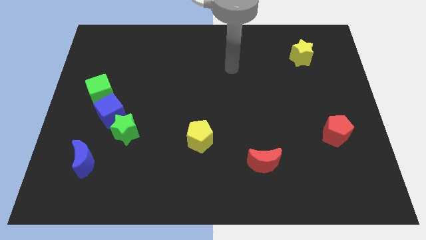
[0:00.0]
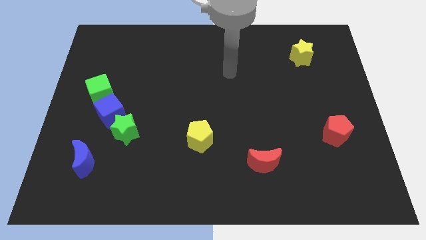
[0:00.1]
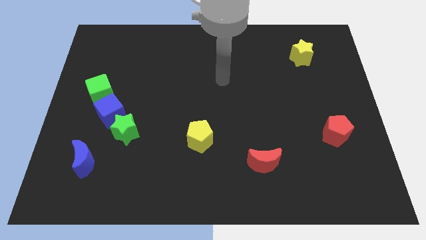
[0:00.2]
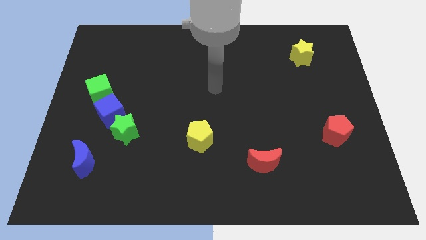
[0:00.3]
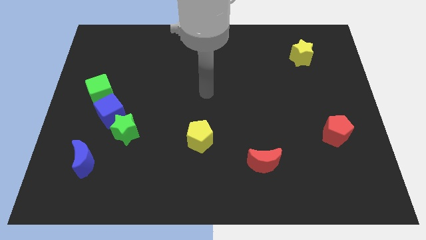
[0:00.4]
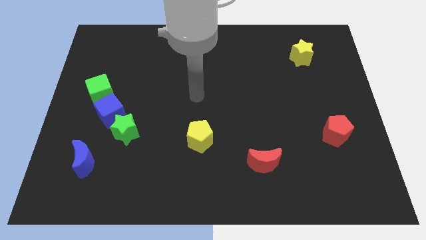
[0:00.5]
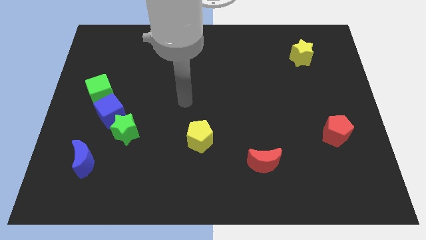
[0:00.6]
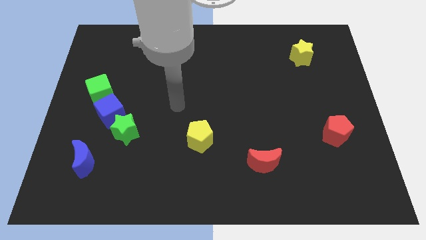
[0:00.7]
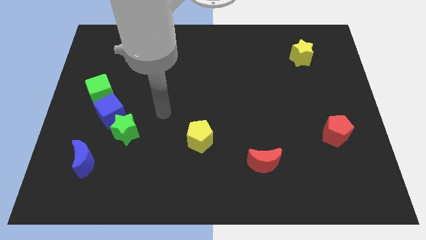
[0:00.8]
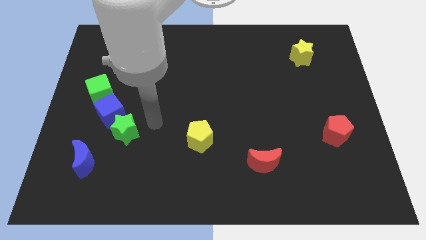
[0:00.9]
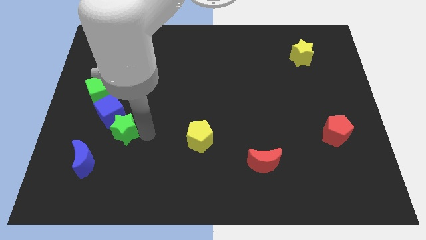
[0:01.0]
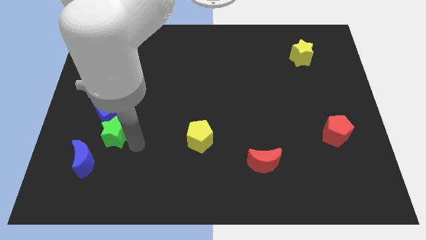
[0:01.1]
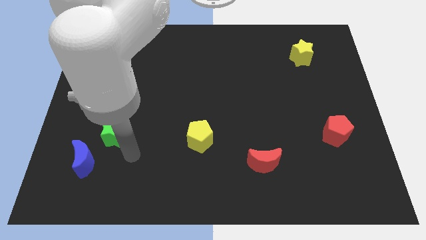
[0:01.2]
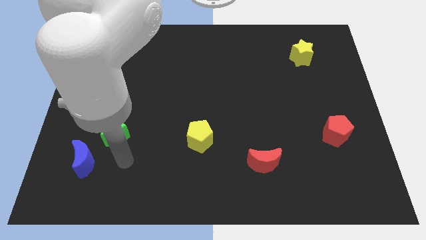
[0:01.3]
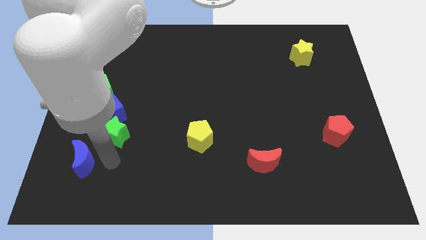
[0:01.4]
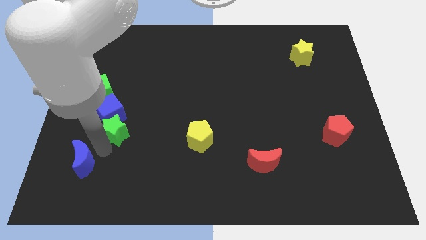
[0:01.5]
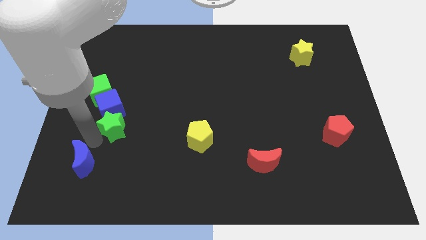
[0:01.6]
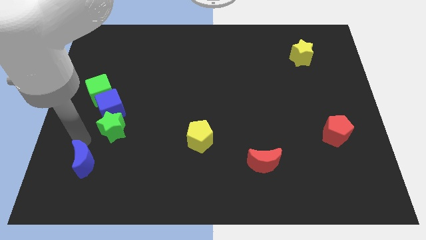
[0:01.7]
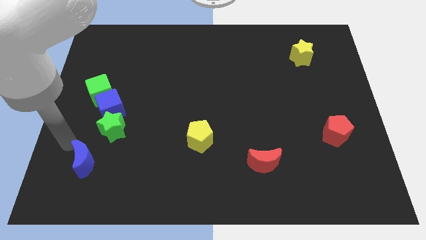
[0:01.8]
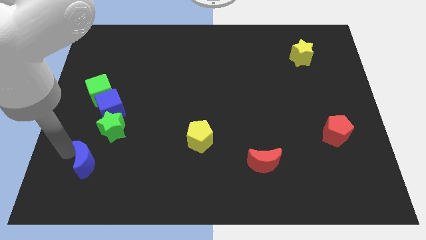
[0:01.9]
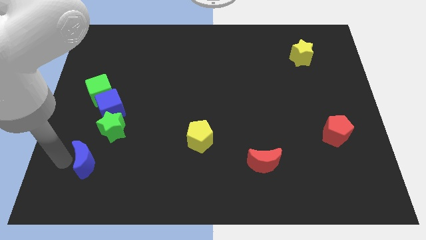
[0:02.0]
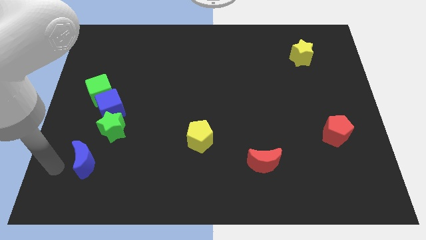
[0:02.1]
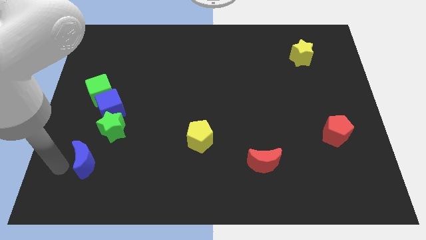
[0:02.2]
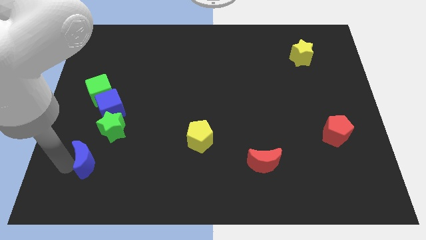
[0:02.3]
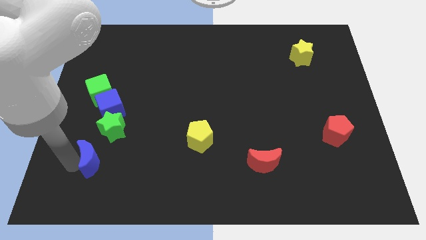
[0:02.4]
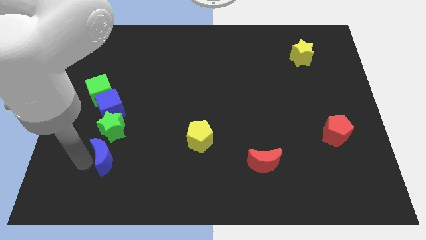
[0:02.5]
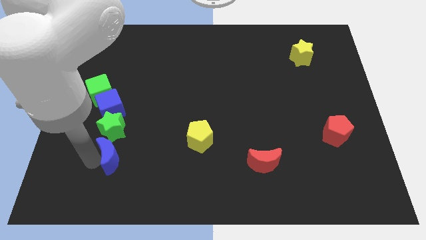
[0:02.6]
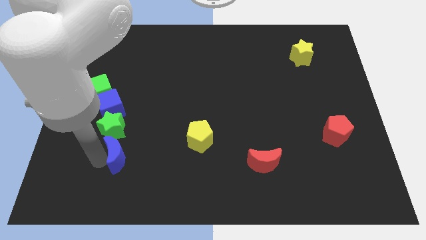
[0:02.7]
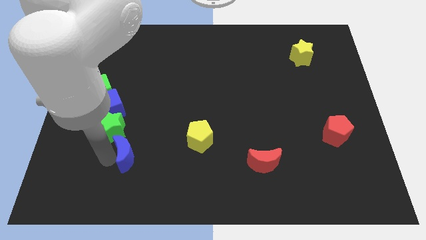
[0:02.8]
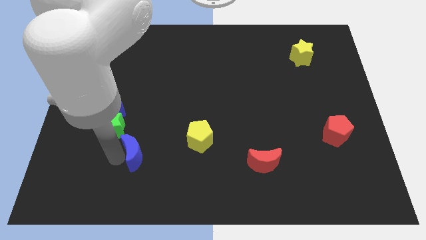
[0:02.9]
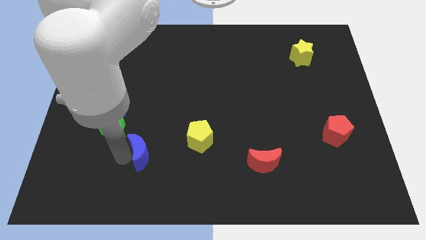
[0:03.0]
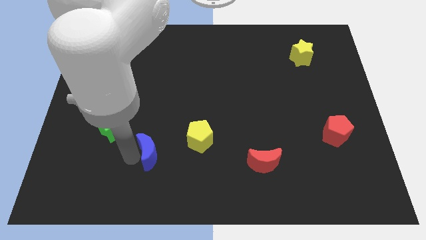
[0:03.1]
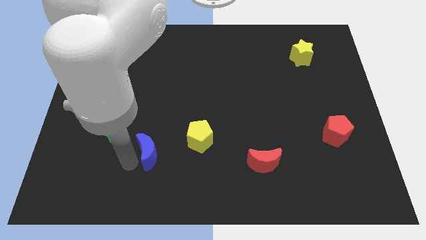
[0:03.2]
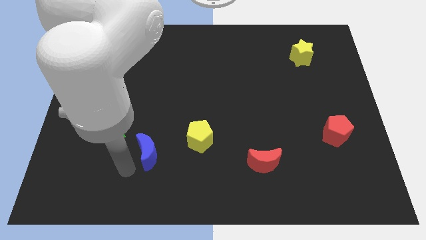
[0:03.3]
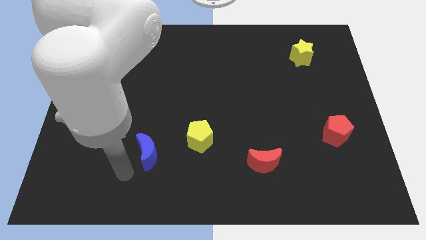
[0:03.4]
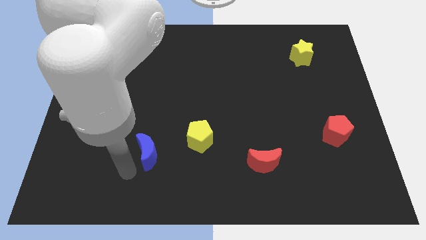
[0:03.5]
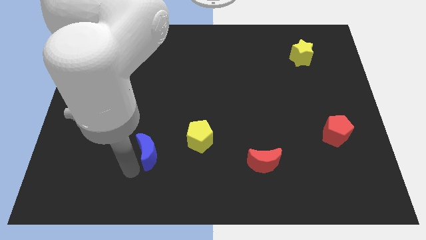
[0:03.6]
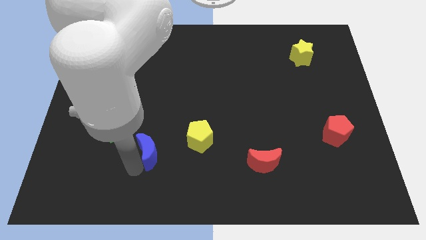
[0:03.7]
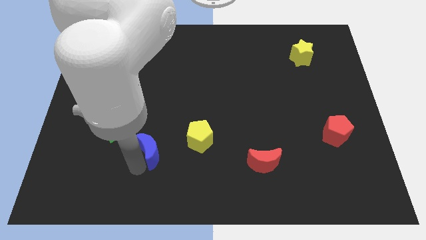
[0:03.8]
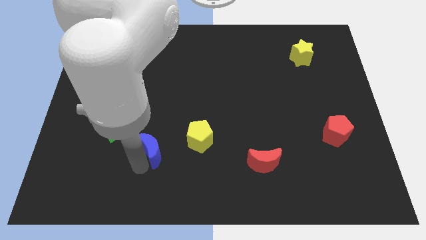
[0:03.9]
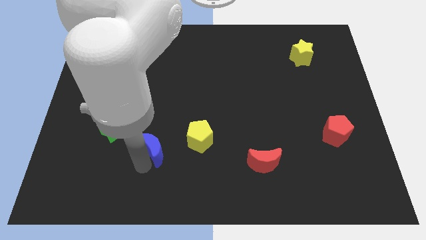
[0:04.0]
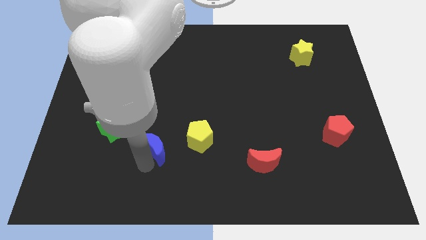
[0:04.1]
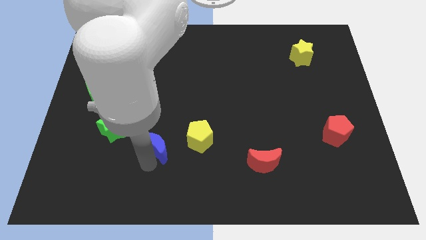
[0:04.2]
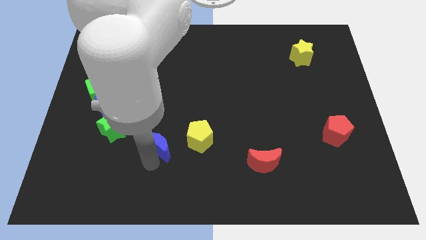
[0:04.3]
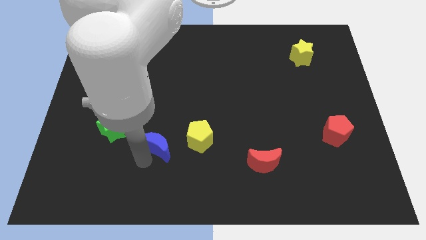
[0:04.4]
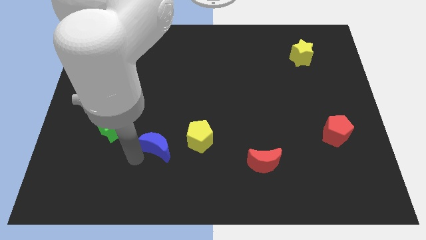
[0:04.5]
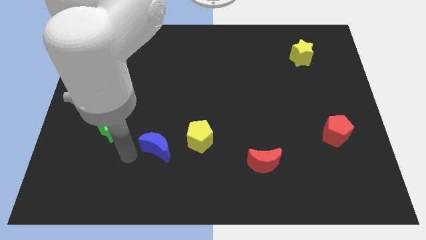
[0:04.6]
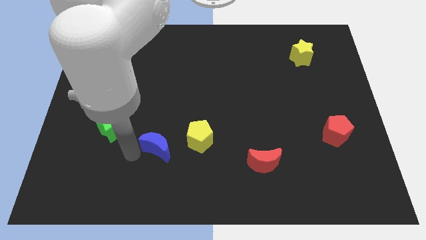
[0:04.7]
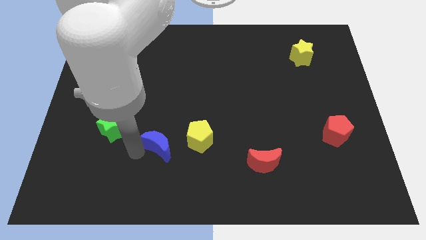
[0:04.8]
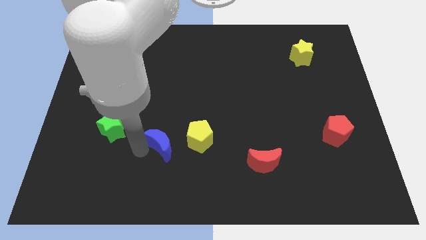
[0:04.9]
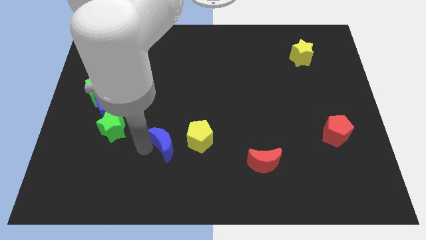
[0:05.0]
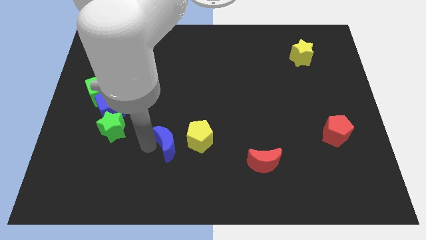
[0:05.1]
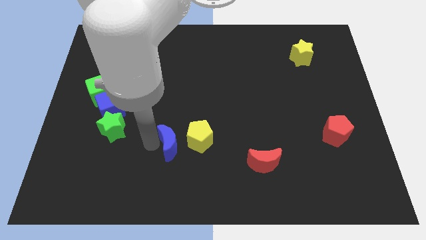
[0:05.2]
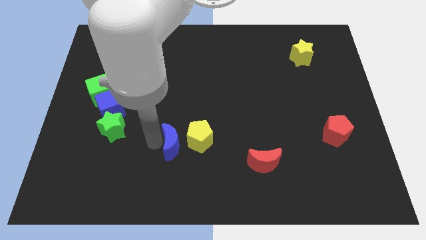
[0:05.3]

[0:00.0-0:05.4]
push the blue moon next to the yellow pentagon

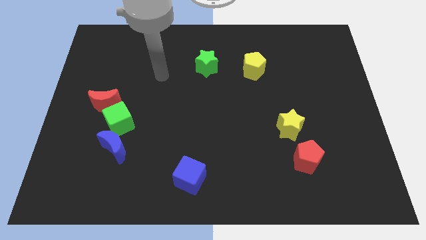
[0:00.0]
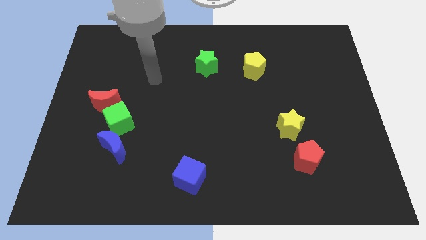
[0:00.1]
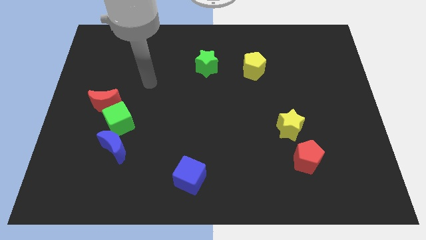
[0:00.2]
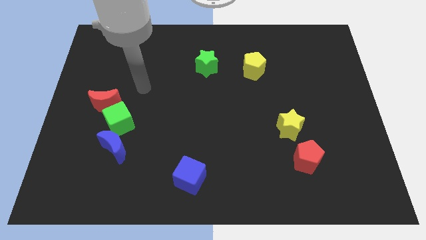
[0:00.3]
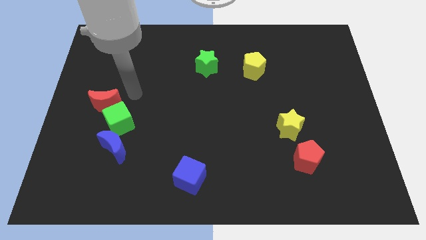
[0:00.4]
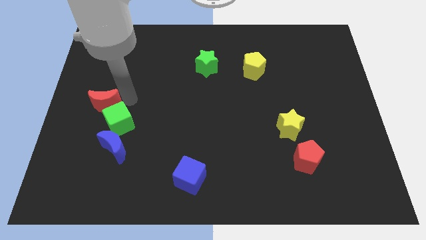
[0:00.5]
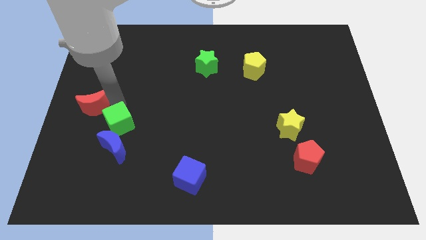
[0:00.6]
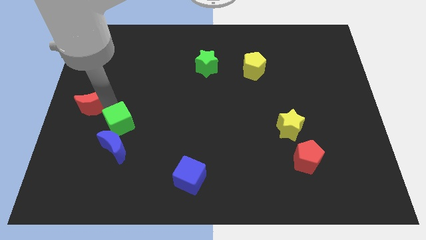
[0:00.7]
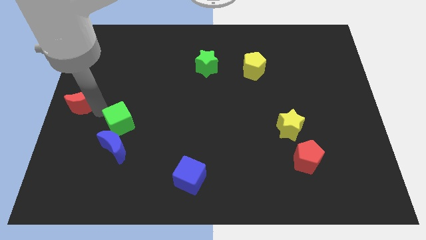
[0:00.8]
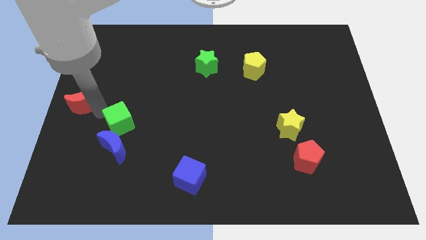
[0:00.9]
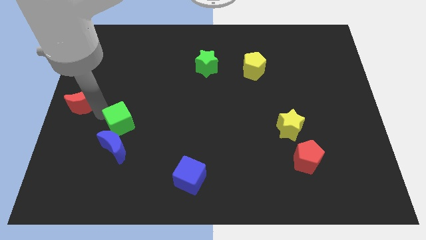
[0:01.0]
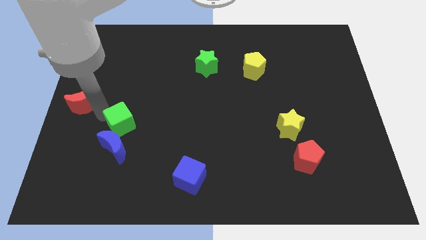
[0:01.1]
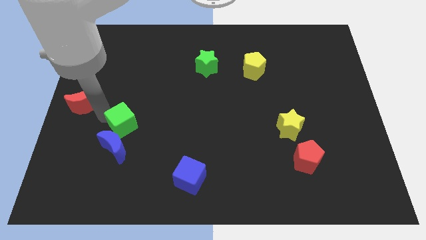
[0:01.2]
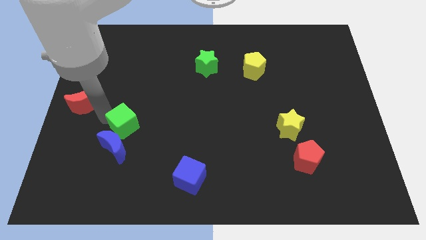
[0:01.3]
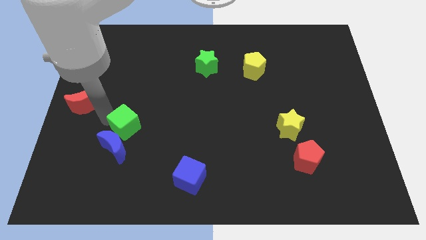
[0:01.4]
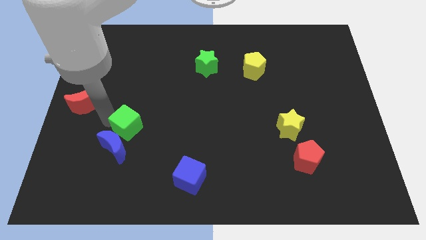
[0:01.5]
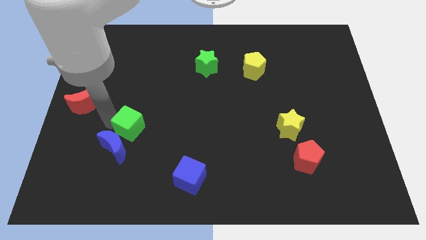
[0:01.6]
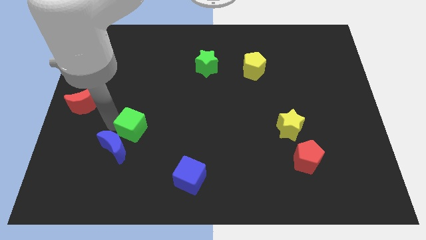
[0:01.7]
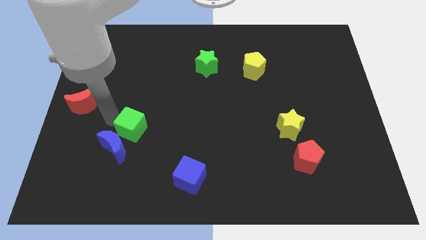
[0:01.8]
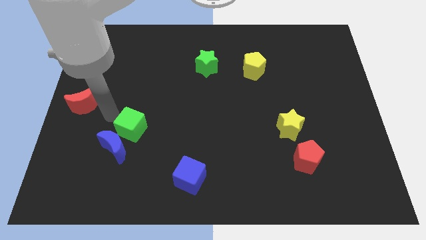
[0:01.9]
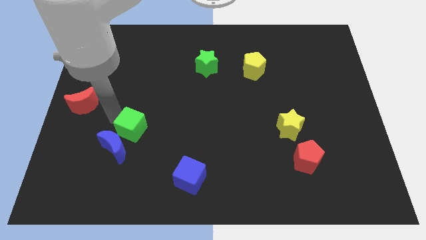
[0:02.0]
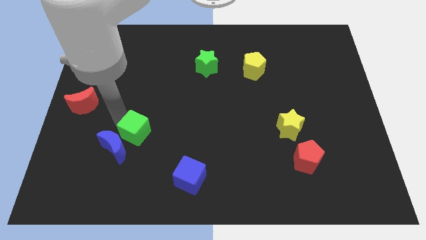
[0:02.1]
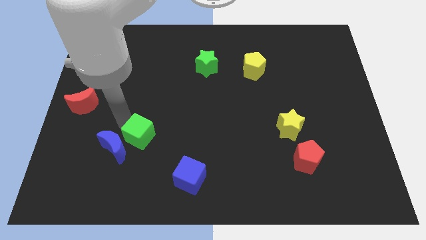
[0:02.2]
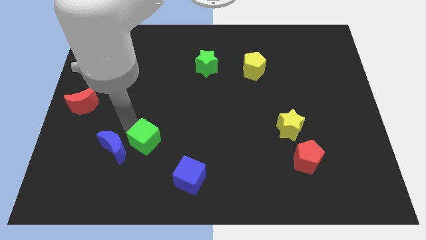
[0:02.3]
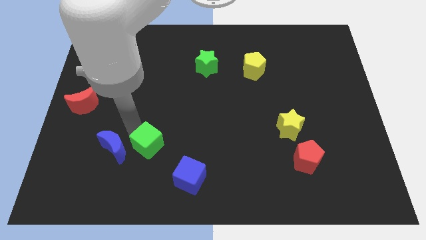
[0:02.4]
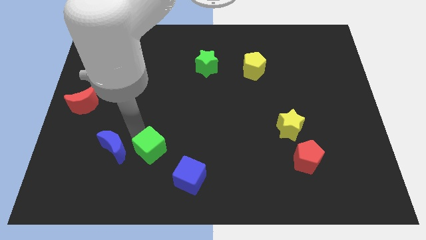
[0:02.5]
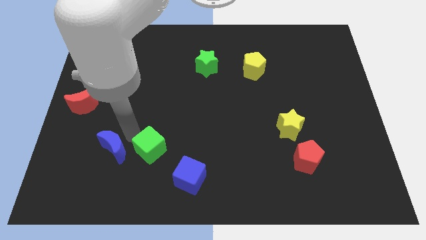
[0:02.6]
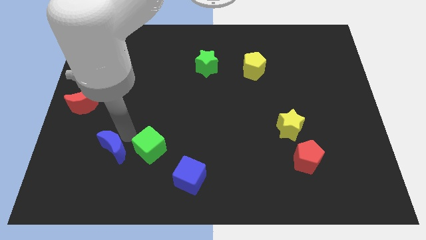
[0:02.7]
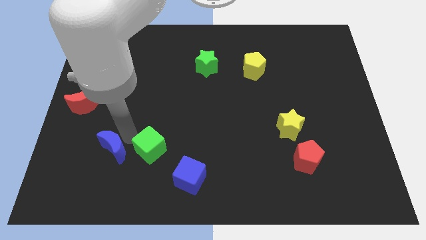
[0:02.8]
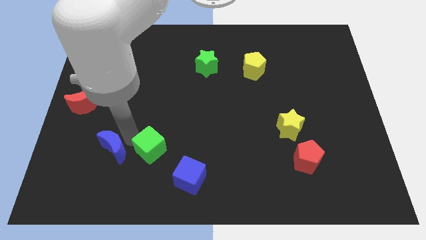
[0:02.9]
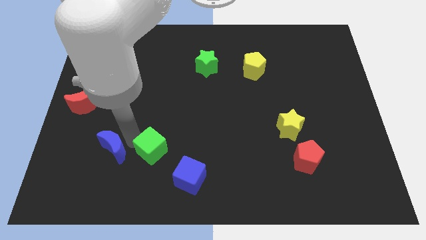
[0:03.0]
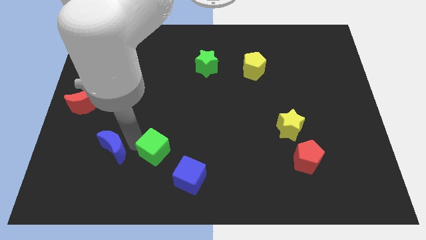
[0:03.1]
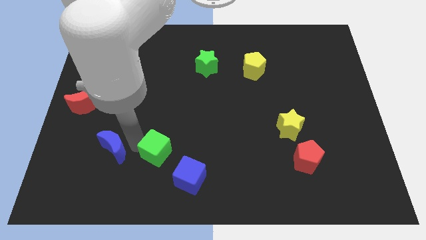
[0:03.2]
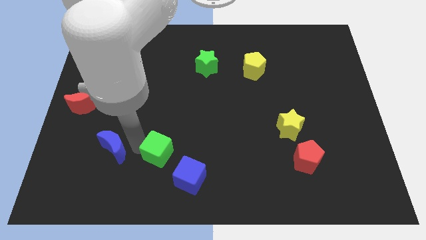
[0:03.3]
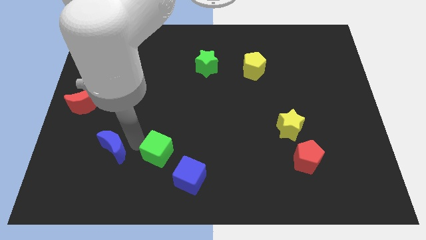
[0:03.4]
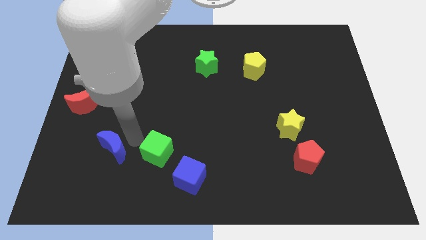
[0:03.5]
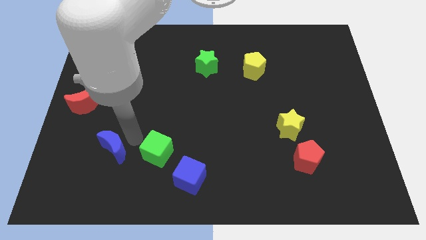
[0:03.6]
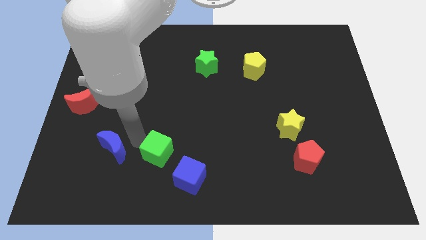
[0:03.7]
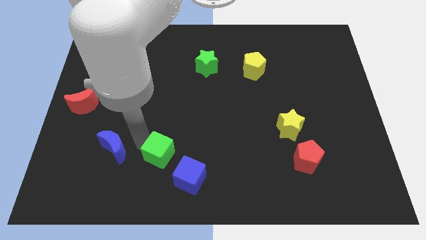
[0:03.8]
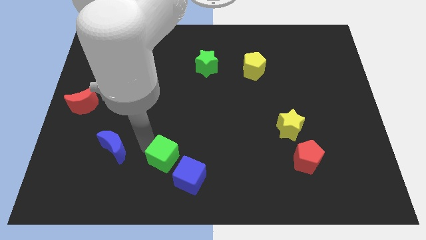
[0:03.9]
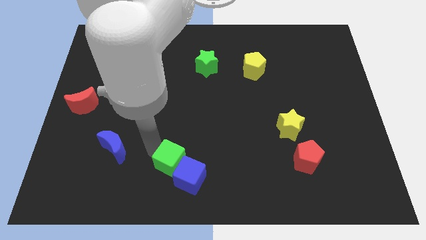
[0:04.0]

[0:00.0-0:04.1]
move the green cube close to the blue cube
